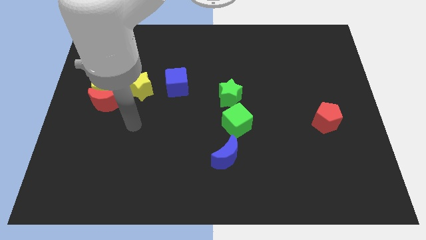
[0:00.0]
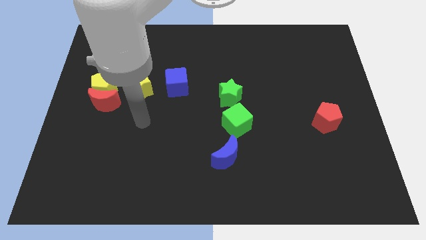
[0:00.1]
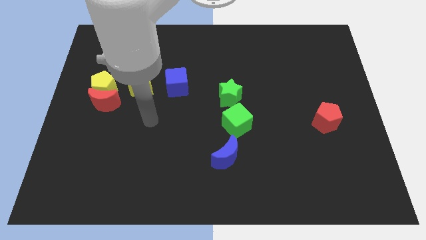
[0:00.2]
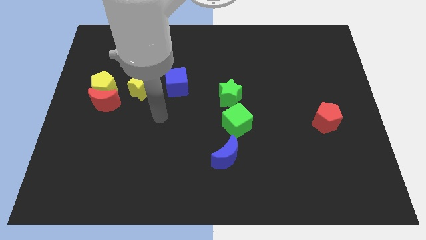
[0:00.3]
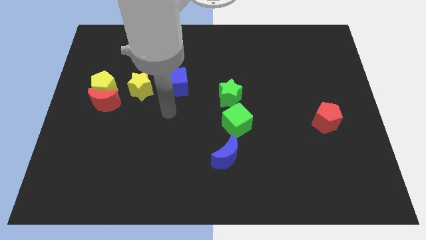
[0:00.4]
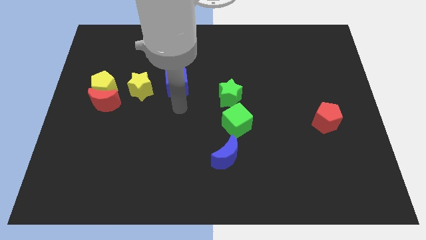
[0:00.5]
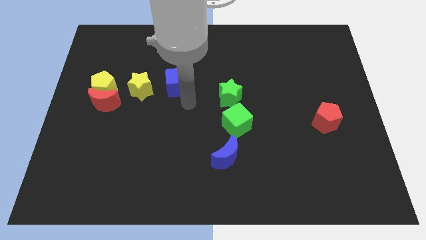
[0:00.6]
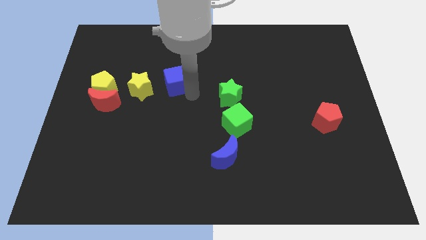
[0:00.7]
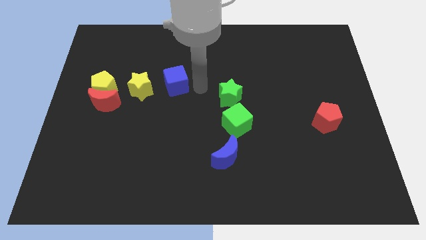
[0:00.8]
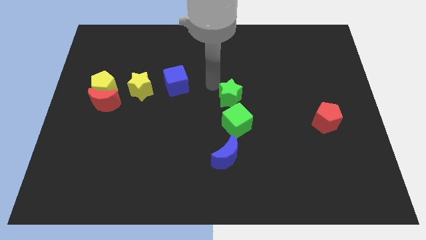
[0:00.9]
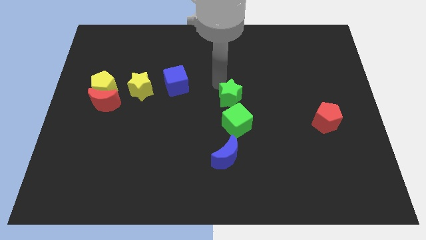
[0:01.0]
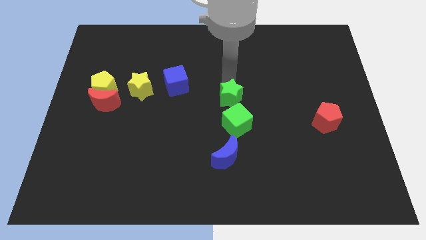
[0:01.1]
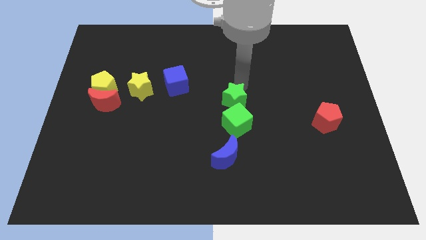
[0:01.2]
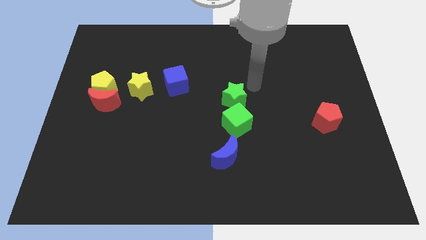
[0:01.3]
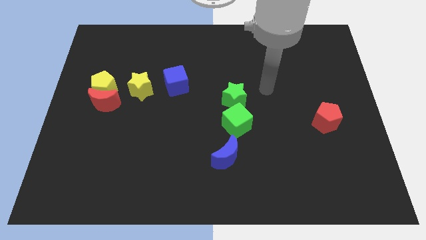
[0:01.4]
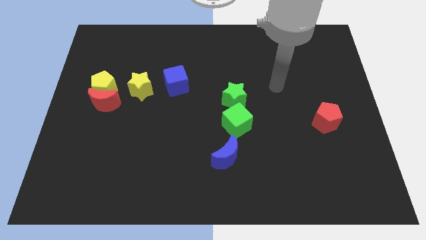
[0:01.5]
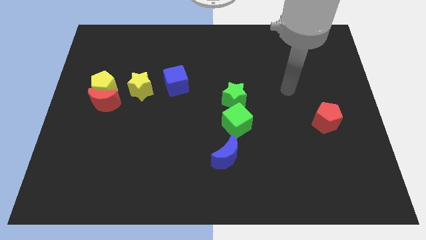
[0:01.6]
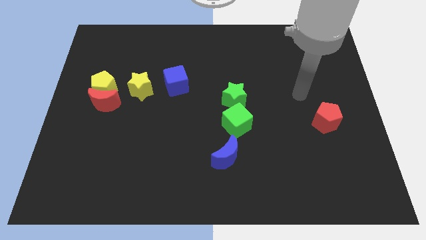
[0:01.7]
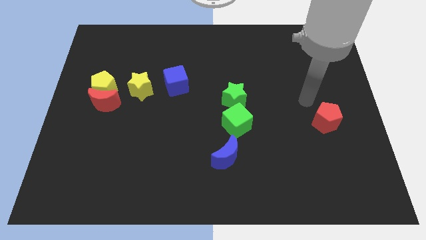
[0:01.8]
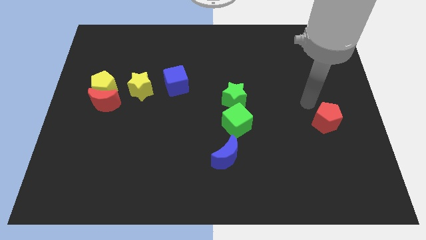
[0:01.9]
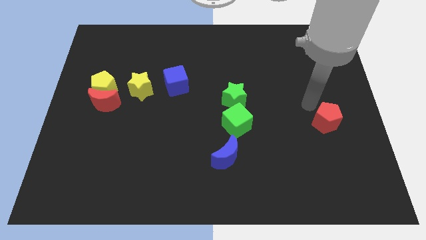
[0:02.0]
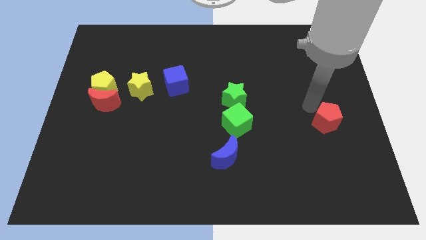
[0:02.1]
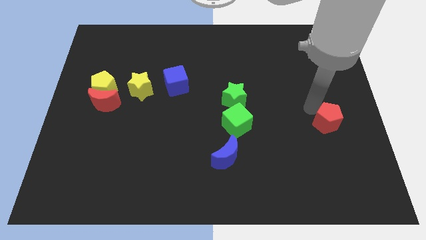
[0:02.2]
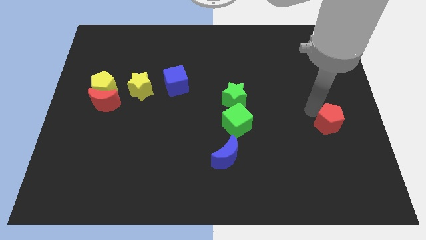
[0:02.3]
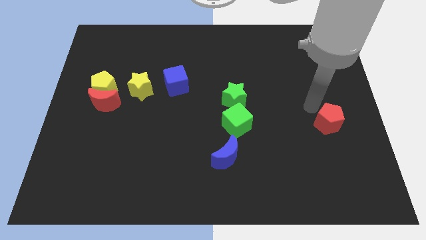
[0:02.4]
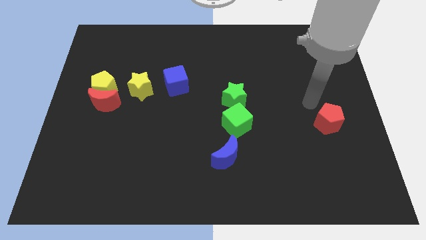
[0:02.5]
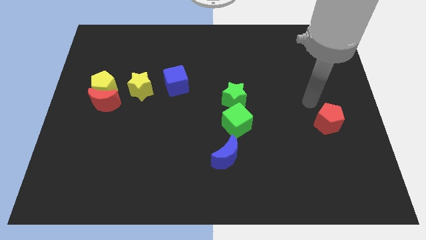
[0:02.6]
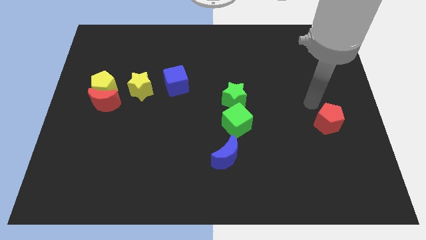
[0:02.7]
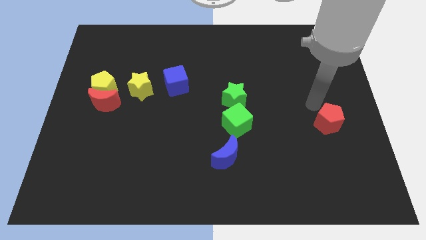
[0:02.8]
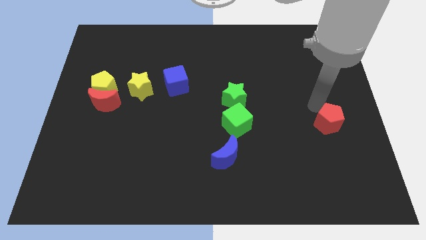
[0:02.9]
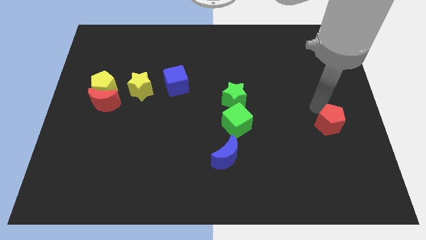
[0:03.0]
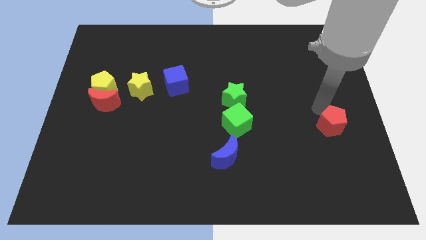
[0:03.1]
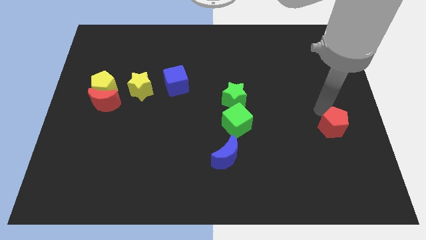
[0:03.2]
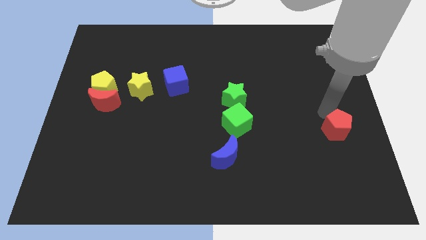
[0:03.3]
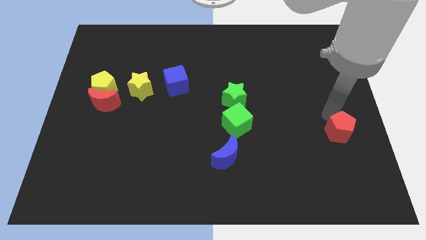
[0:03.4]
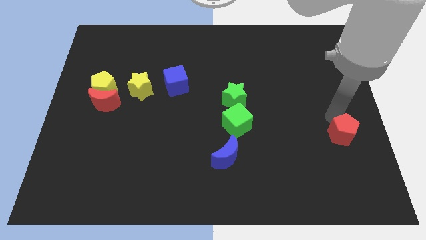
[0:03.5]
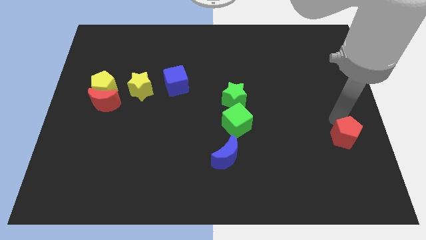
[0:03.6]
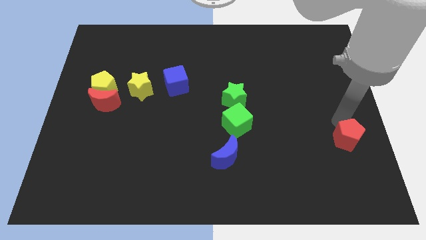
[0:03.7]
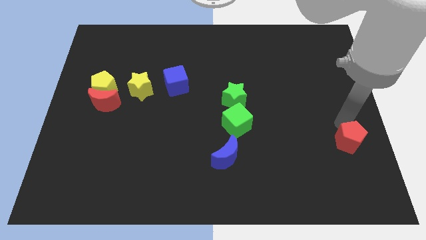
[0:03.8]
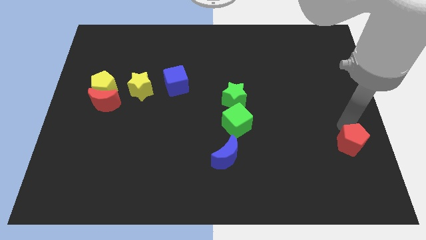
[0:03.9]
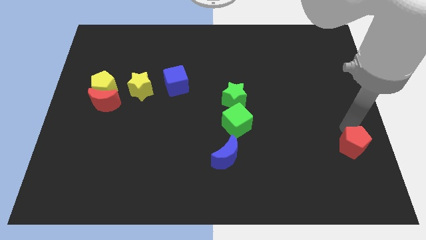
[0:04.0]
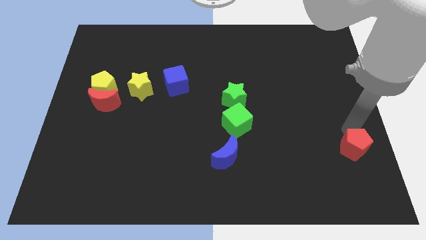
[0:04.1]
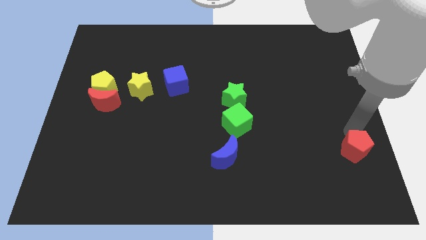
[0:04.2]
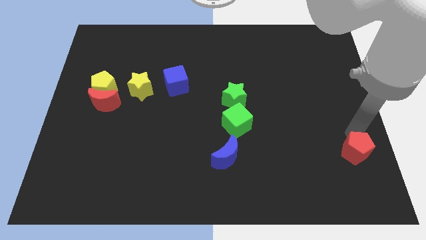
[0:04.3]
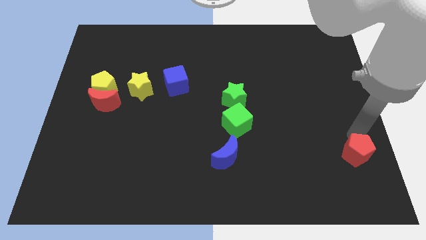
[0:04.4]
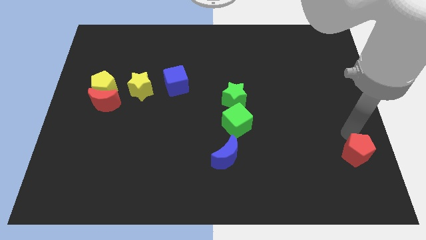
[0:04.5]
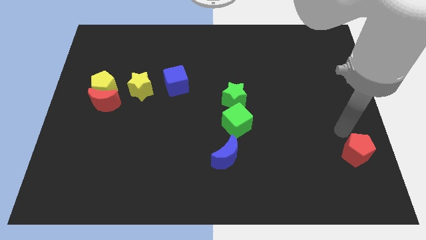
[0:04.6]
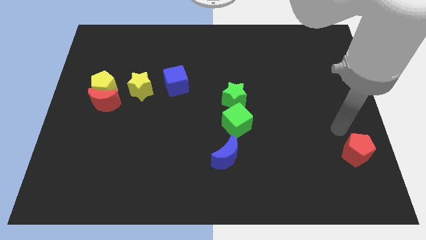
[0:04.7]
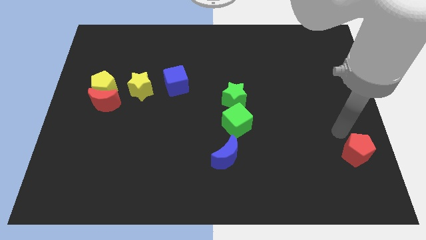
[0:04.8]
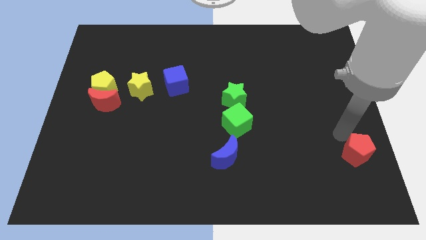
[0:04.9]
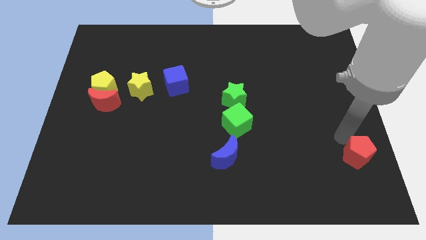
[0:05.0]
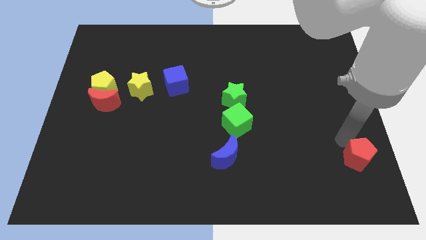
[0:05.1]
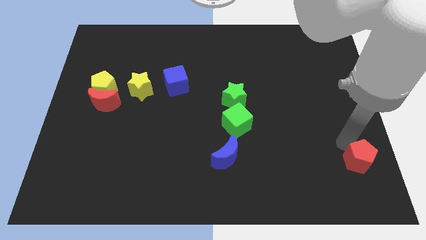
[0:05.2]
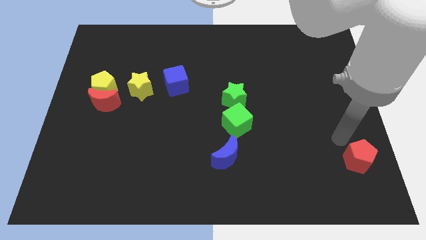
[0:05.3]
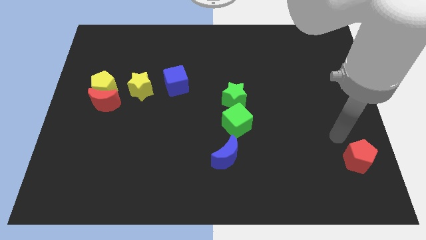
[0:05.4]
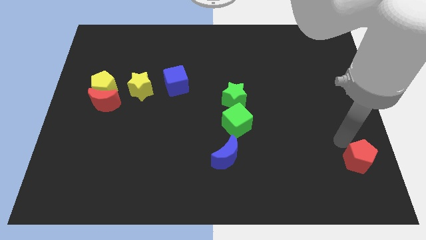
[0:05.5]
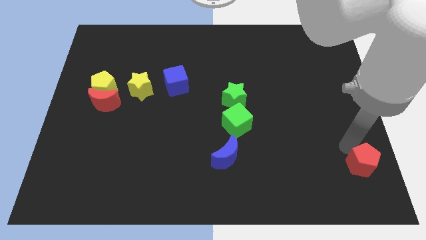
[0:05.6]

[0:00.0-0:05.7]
put the red pentagon to the bottom right of the board

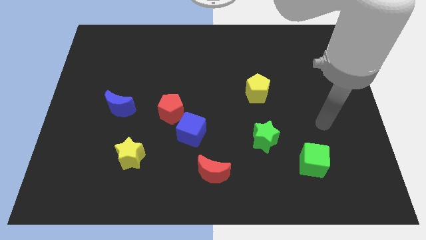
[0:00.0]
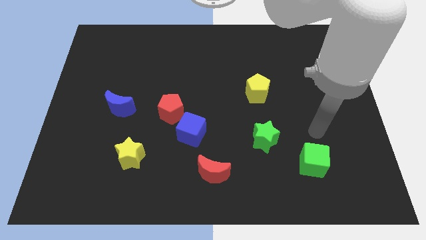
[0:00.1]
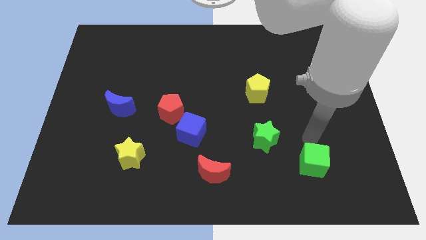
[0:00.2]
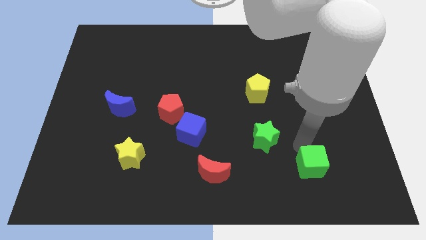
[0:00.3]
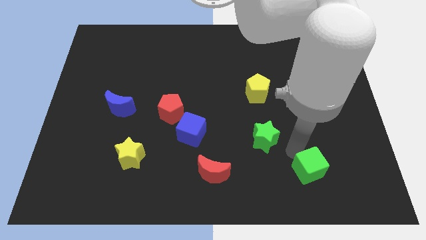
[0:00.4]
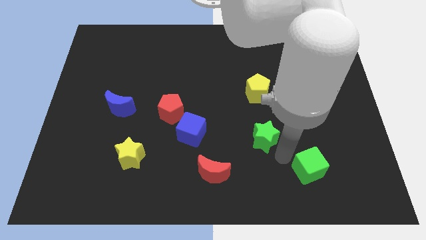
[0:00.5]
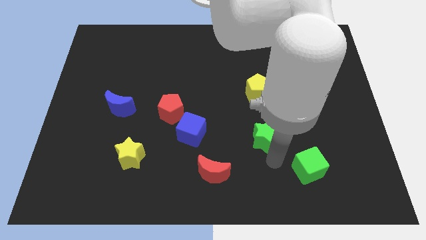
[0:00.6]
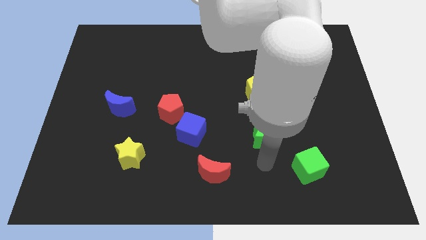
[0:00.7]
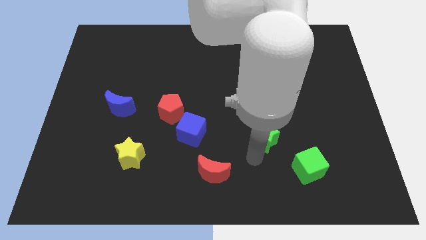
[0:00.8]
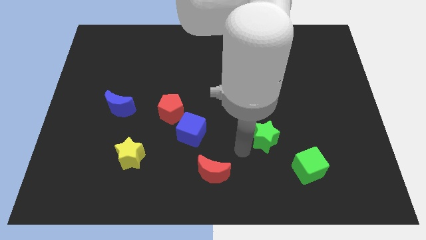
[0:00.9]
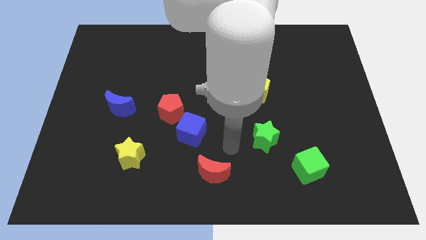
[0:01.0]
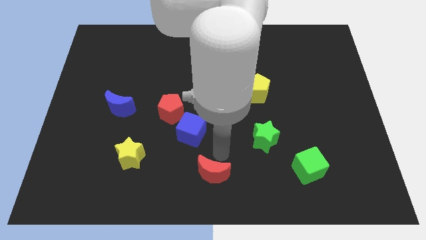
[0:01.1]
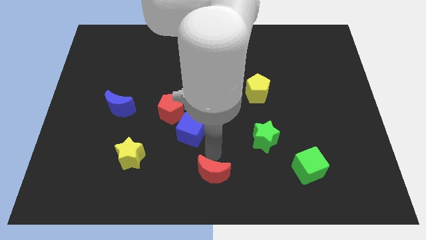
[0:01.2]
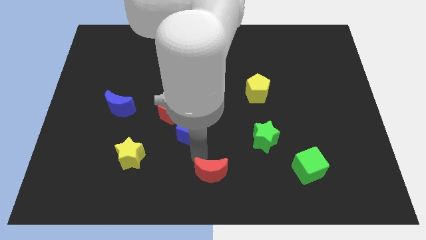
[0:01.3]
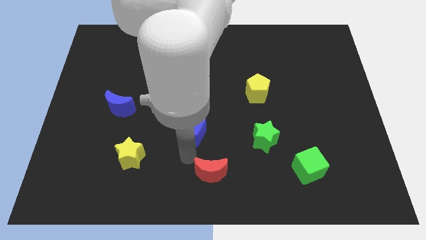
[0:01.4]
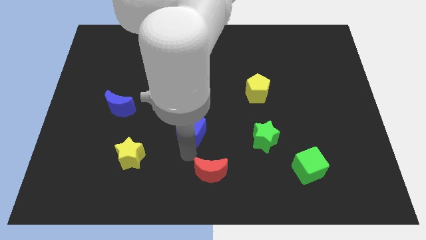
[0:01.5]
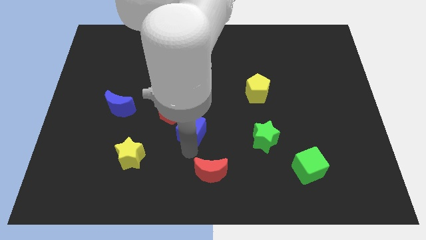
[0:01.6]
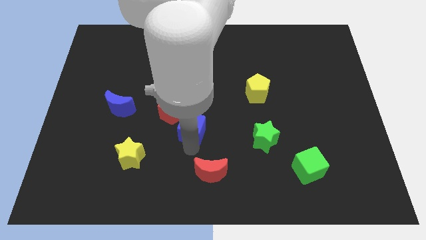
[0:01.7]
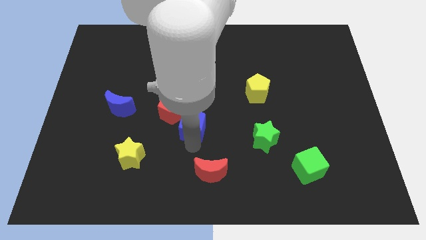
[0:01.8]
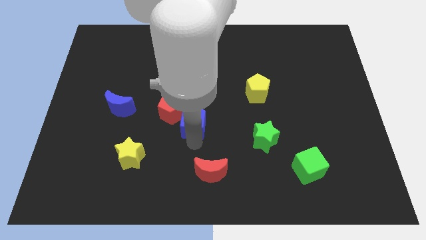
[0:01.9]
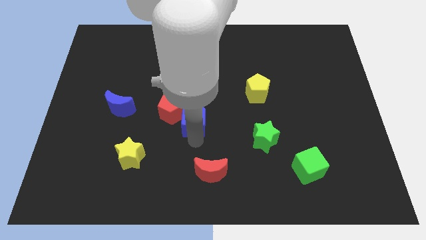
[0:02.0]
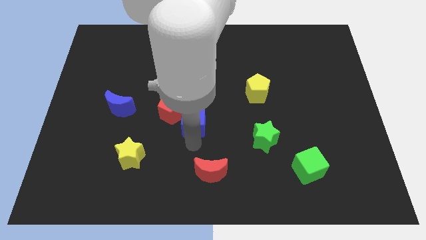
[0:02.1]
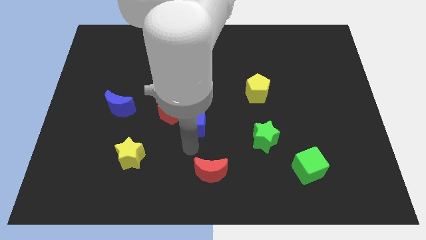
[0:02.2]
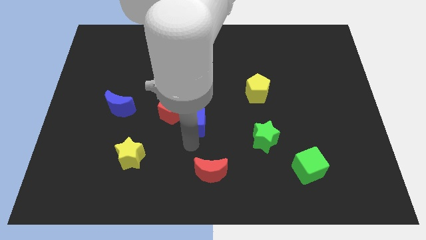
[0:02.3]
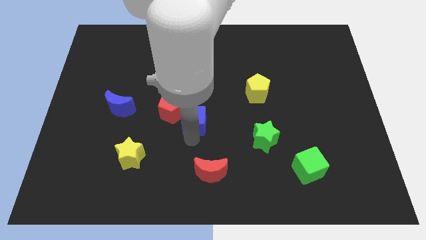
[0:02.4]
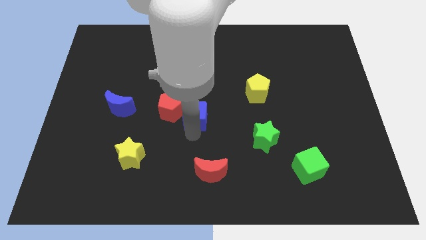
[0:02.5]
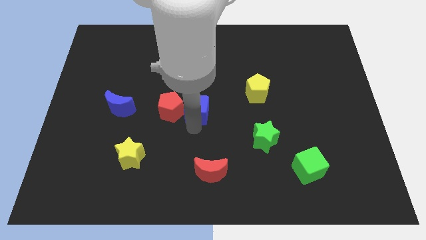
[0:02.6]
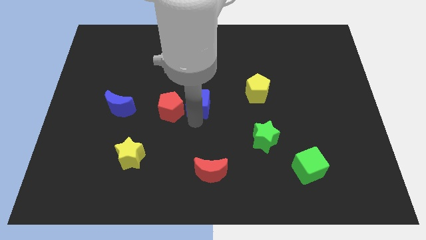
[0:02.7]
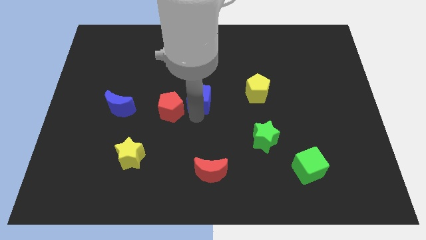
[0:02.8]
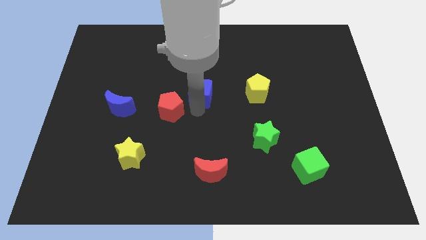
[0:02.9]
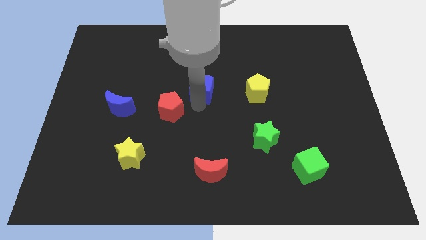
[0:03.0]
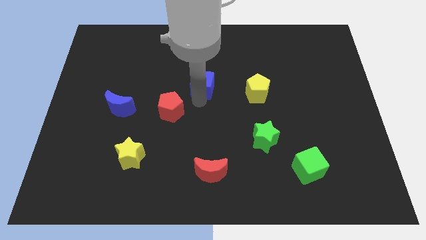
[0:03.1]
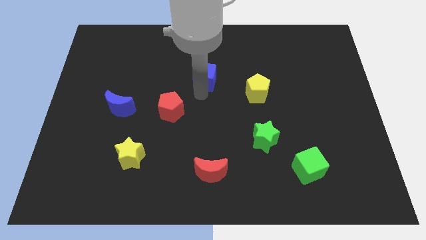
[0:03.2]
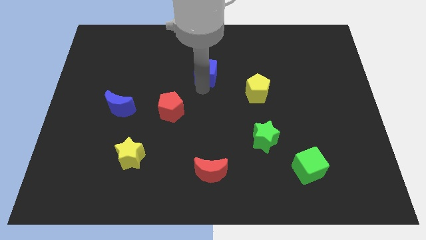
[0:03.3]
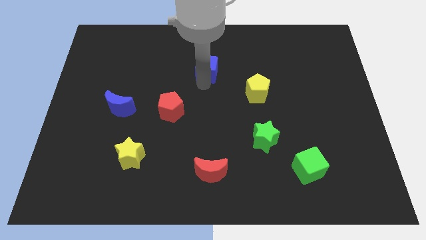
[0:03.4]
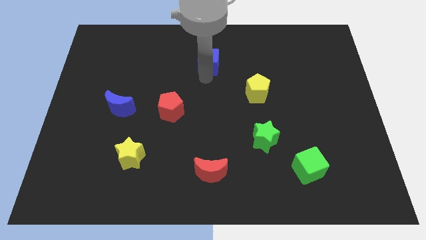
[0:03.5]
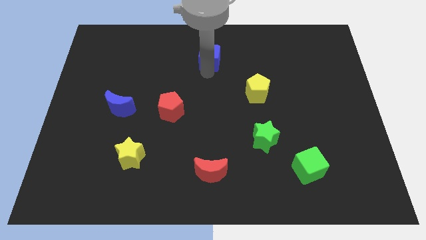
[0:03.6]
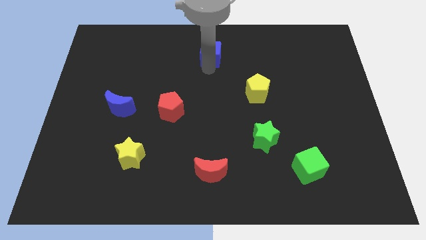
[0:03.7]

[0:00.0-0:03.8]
move the blue cube to the towards your base
